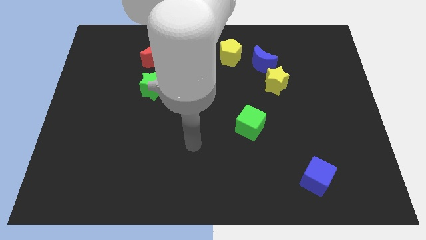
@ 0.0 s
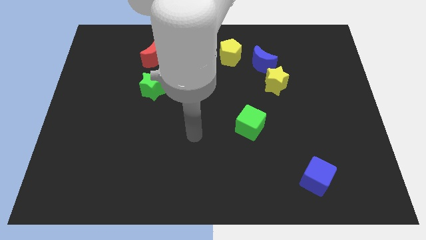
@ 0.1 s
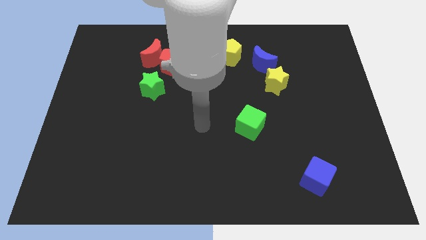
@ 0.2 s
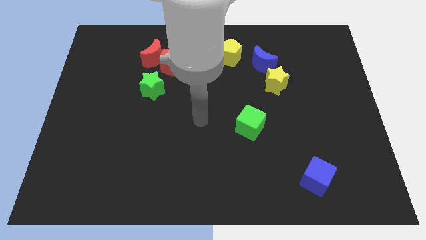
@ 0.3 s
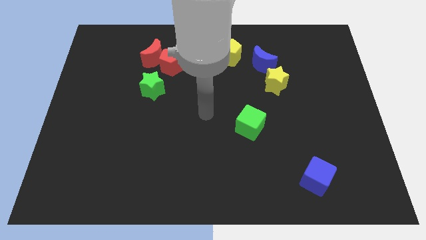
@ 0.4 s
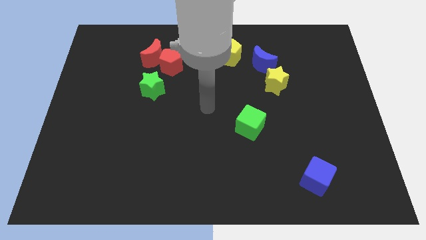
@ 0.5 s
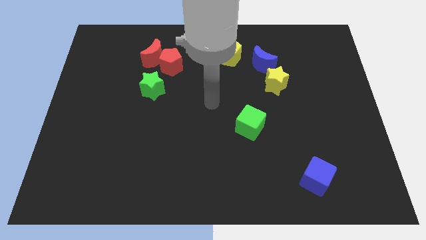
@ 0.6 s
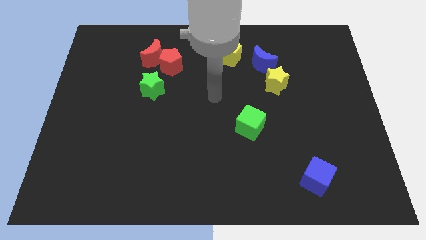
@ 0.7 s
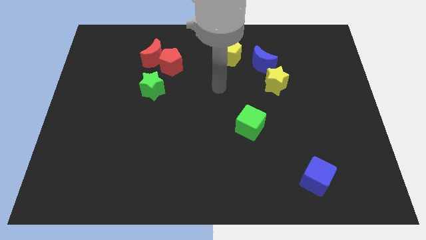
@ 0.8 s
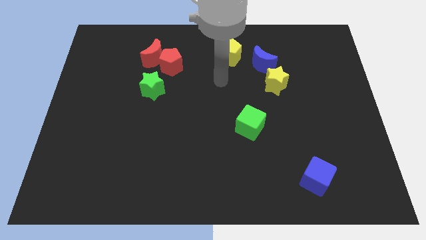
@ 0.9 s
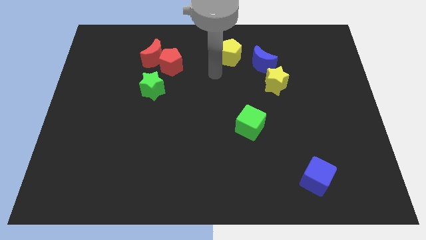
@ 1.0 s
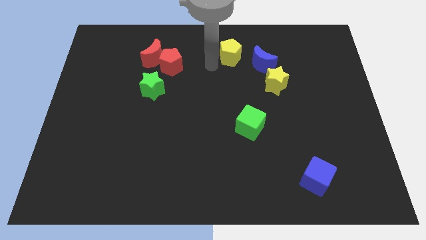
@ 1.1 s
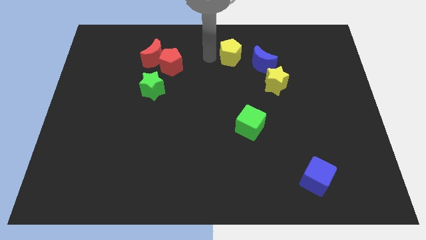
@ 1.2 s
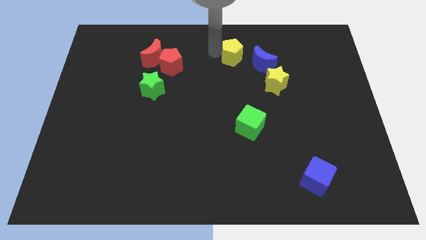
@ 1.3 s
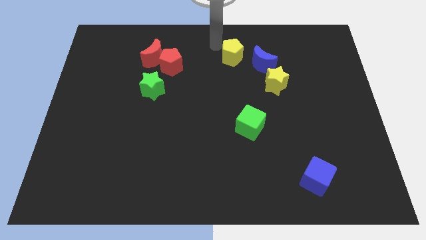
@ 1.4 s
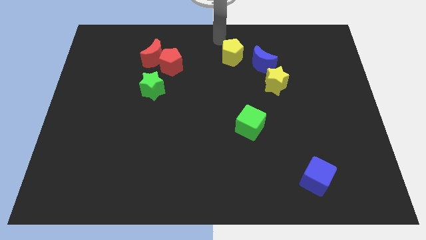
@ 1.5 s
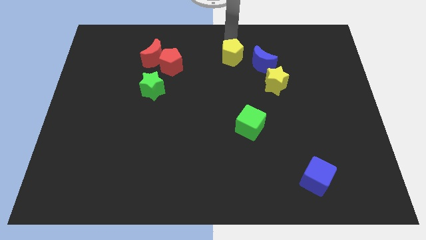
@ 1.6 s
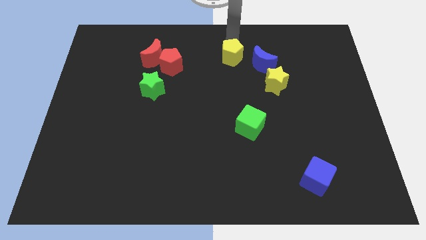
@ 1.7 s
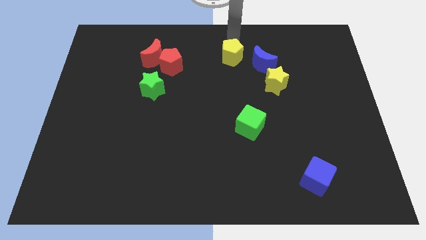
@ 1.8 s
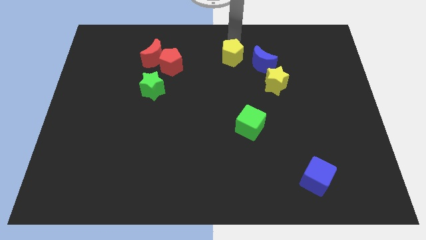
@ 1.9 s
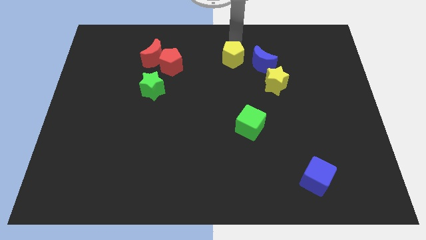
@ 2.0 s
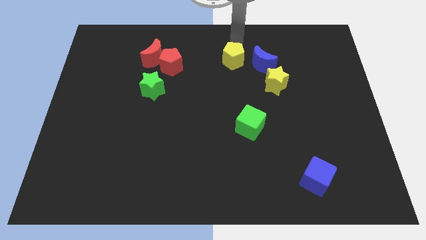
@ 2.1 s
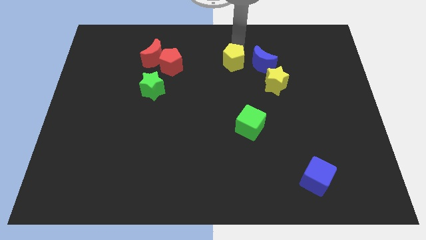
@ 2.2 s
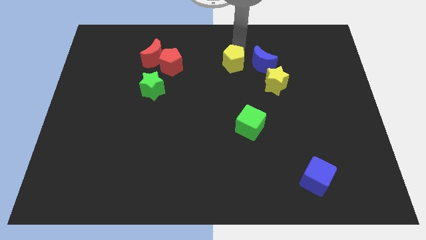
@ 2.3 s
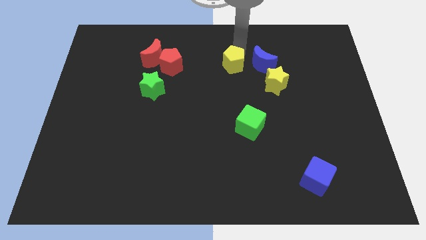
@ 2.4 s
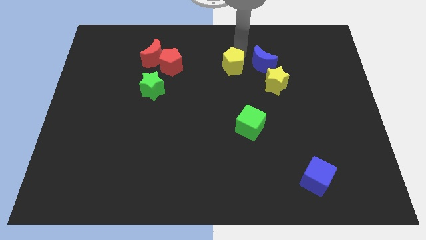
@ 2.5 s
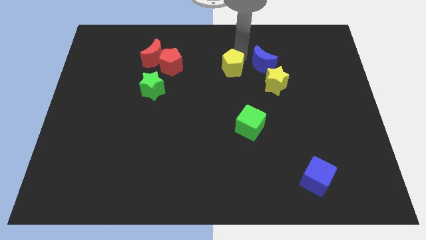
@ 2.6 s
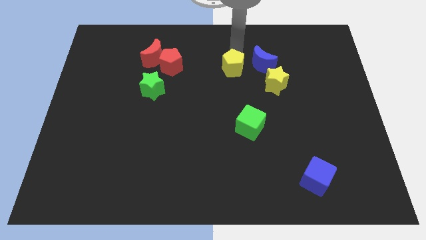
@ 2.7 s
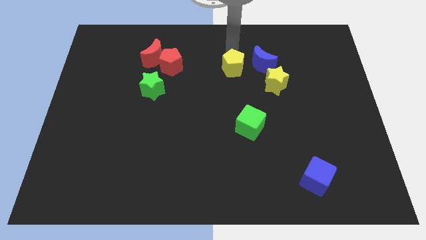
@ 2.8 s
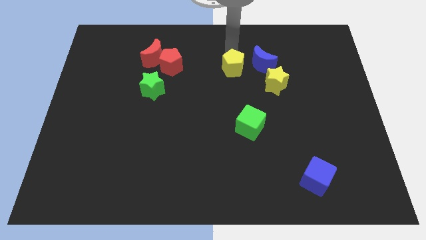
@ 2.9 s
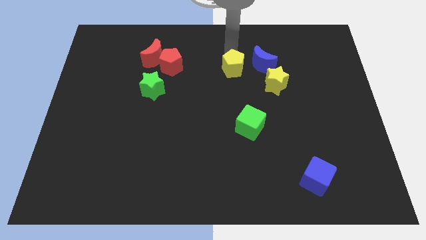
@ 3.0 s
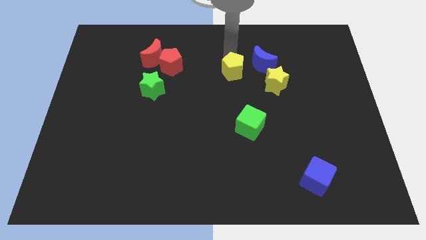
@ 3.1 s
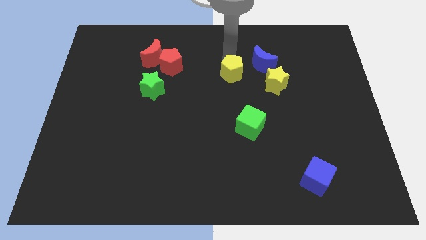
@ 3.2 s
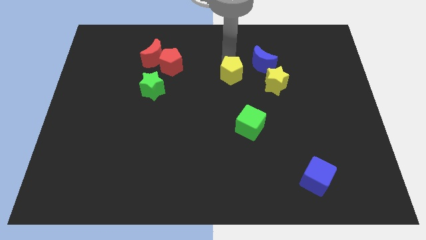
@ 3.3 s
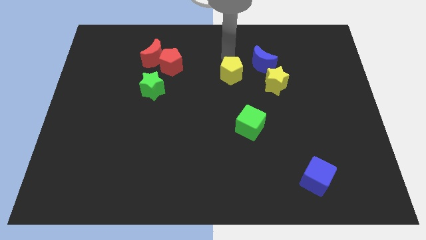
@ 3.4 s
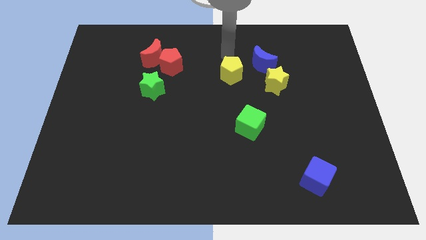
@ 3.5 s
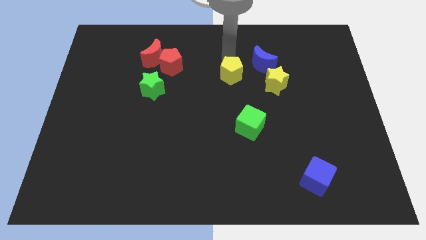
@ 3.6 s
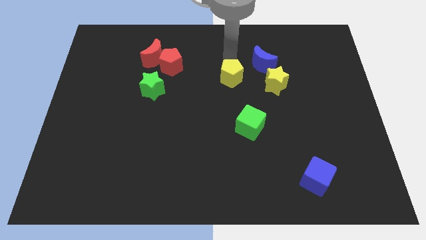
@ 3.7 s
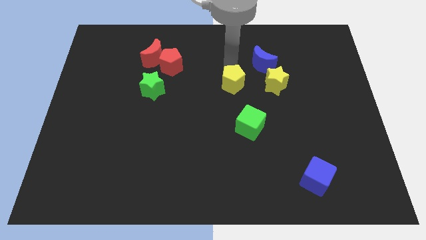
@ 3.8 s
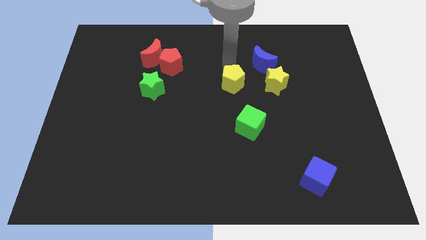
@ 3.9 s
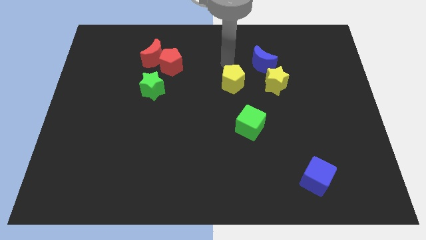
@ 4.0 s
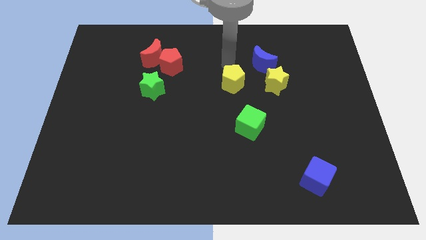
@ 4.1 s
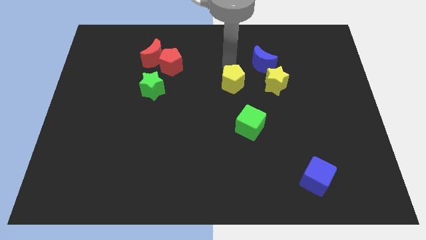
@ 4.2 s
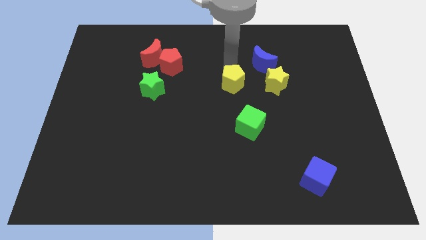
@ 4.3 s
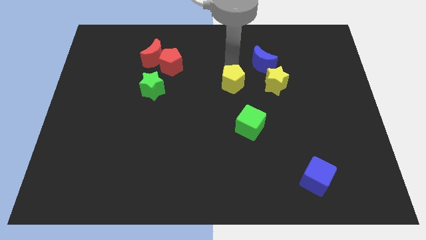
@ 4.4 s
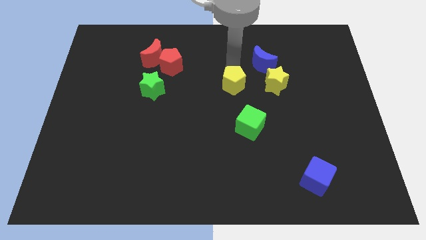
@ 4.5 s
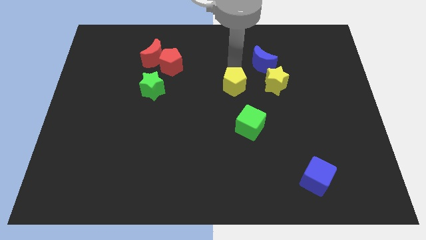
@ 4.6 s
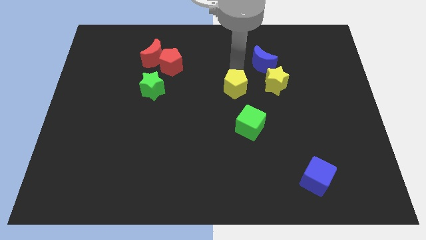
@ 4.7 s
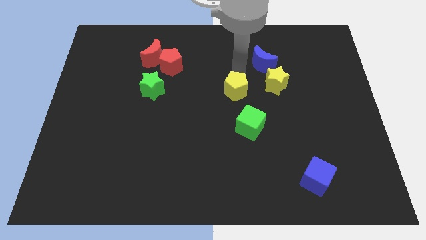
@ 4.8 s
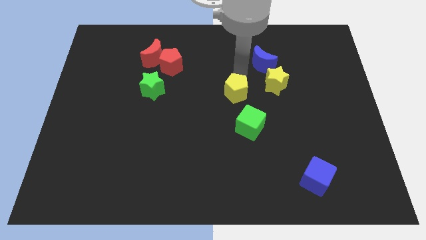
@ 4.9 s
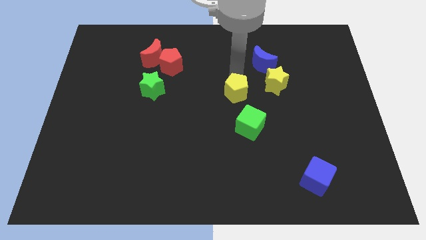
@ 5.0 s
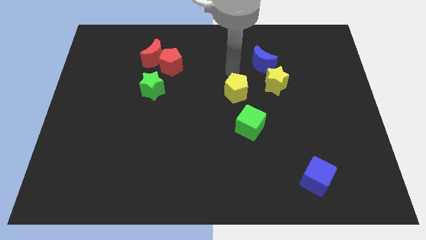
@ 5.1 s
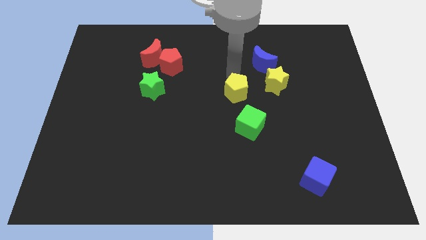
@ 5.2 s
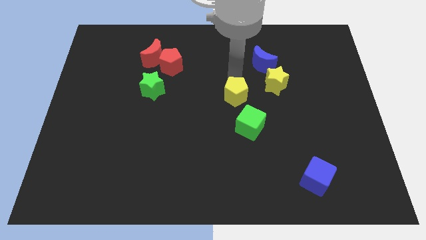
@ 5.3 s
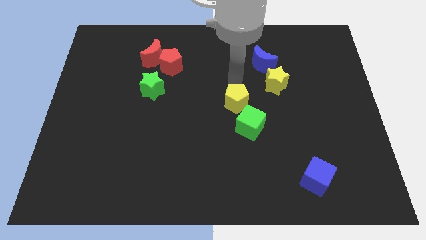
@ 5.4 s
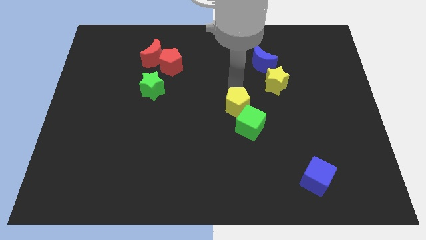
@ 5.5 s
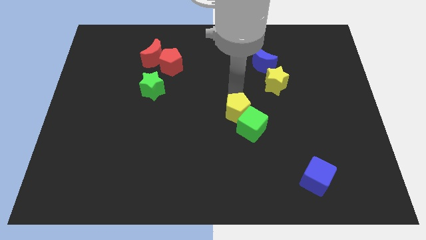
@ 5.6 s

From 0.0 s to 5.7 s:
put the yellow pentagon close to the green cube

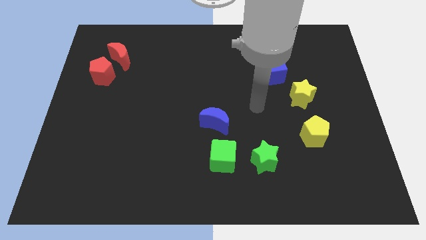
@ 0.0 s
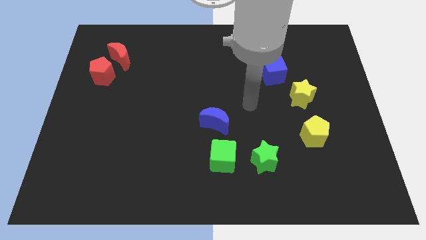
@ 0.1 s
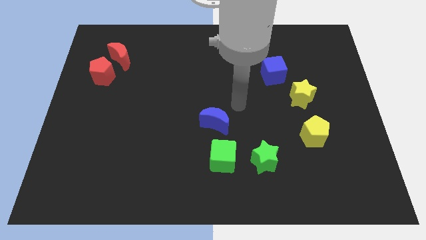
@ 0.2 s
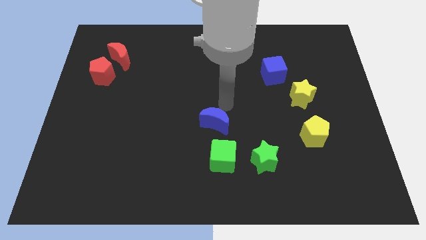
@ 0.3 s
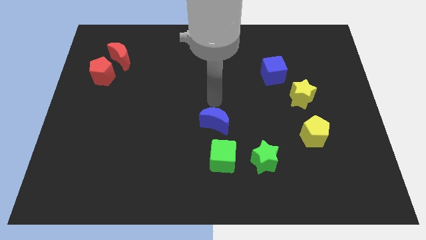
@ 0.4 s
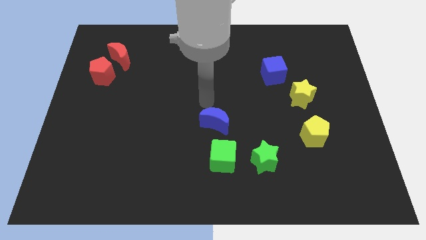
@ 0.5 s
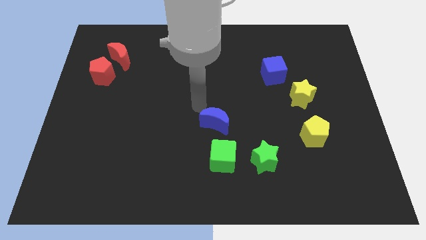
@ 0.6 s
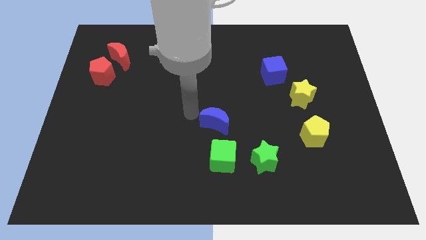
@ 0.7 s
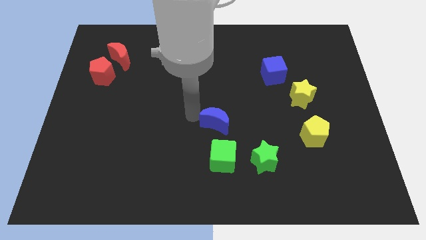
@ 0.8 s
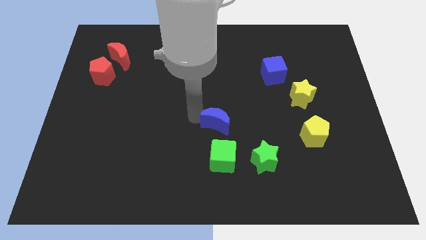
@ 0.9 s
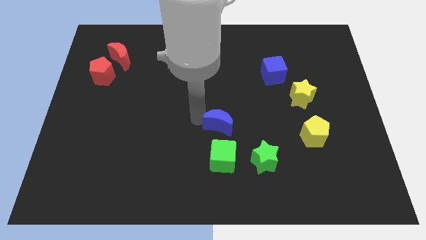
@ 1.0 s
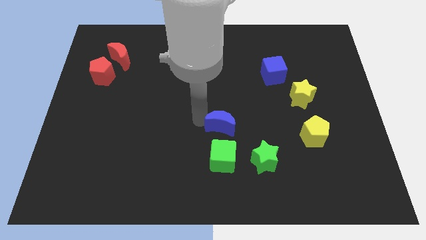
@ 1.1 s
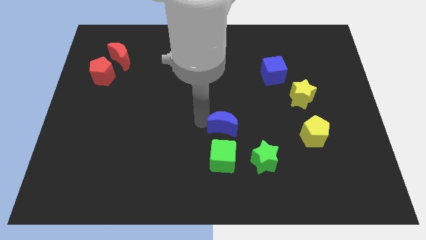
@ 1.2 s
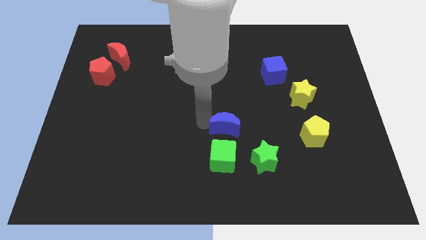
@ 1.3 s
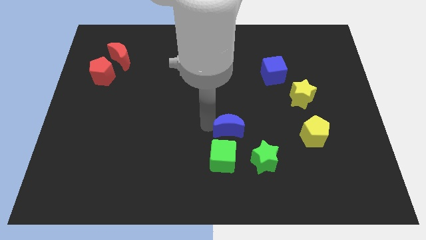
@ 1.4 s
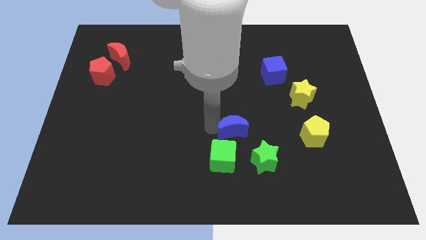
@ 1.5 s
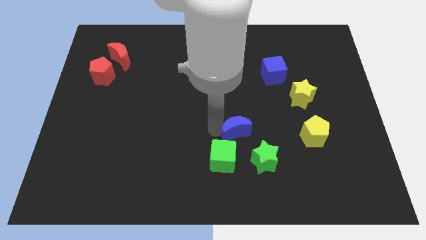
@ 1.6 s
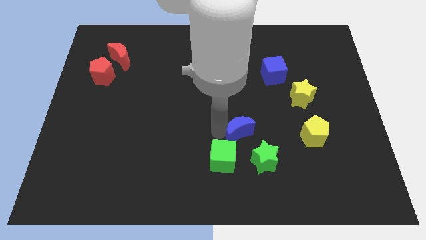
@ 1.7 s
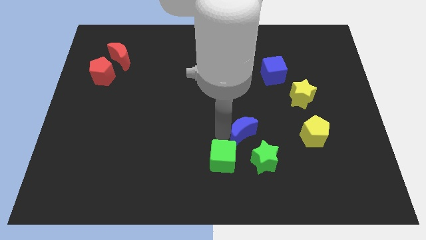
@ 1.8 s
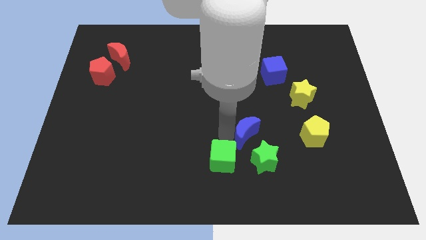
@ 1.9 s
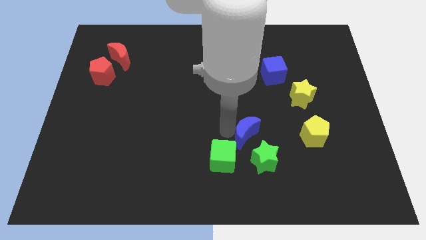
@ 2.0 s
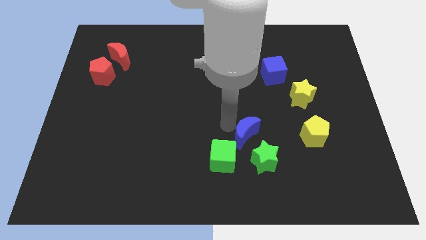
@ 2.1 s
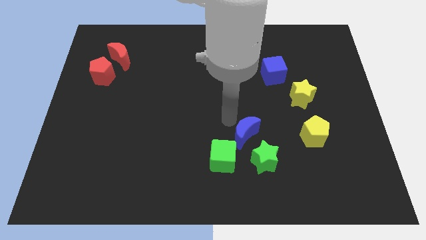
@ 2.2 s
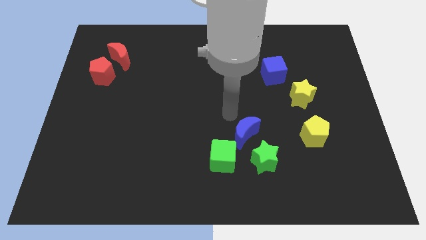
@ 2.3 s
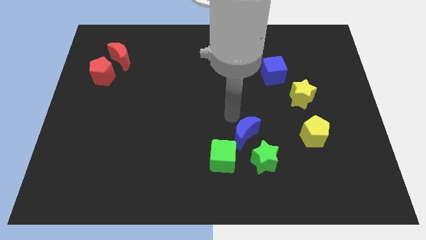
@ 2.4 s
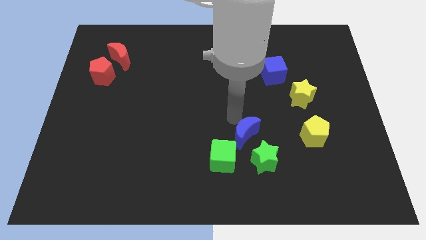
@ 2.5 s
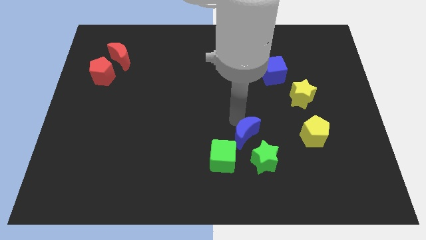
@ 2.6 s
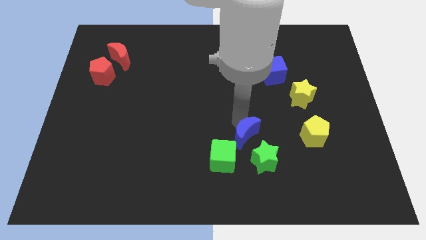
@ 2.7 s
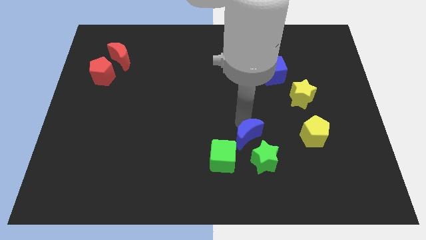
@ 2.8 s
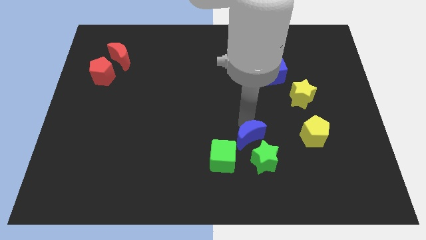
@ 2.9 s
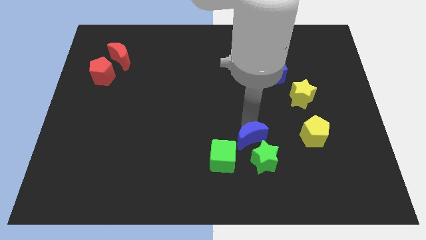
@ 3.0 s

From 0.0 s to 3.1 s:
move the blue moon next to the green star
